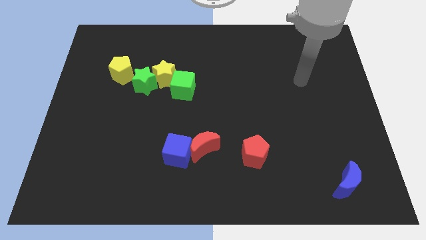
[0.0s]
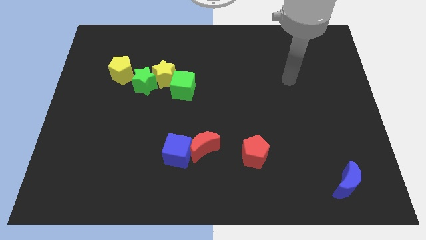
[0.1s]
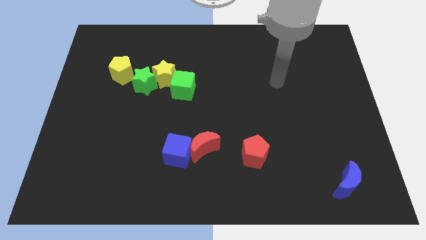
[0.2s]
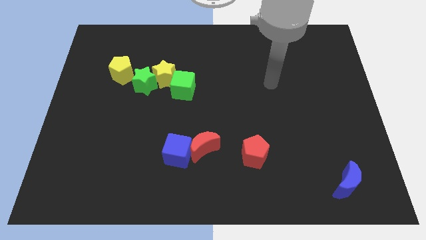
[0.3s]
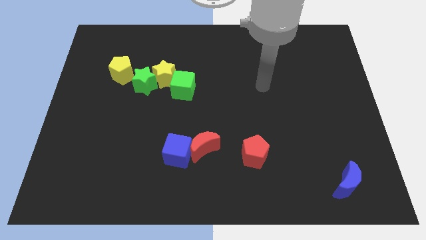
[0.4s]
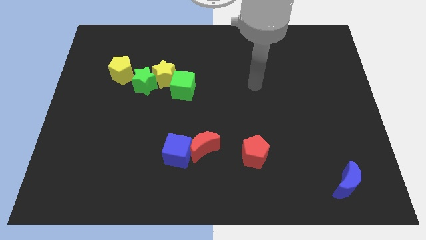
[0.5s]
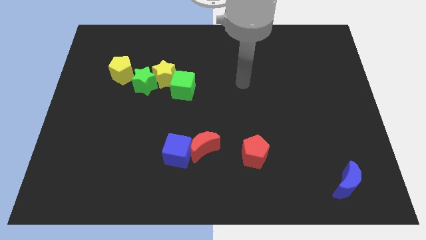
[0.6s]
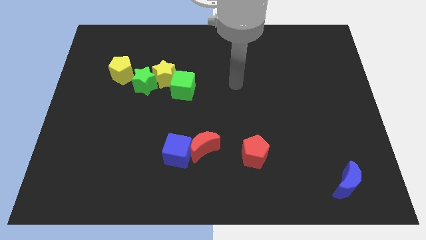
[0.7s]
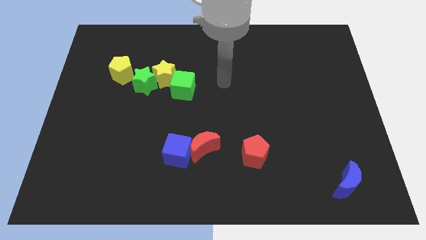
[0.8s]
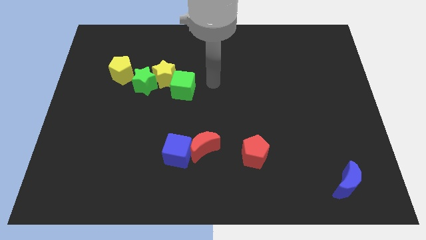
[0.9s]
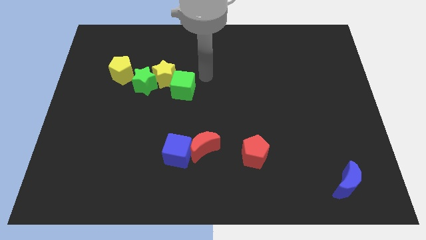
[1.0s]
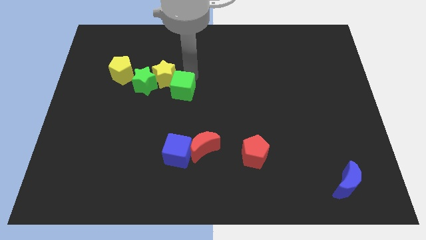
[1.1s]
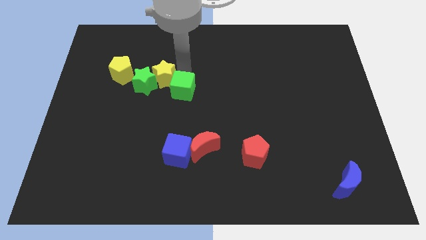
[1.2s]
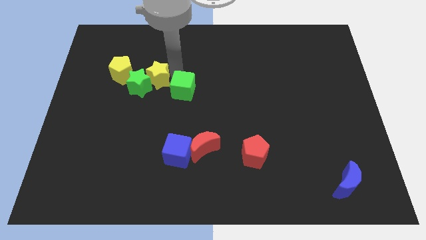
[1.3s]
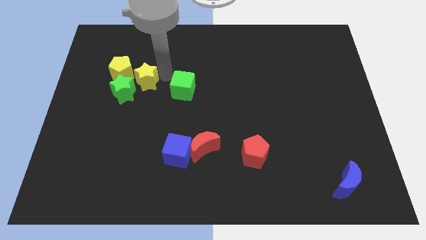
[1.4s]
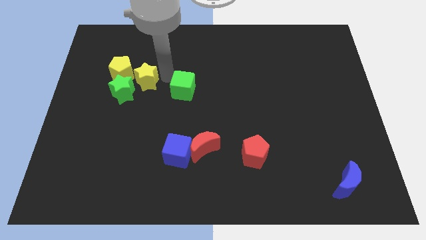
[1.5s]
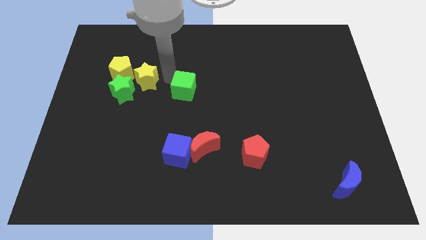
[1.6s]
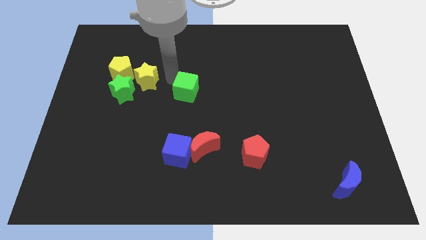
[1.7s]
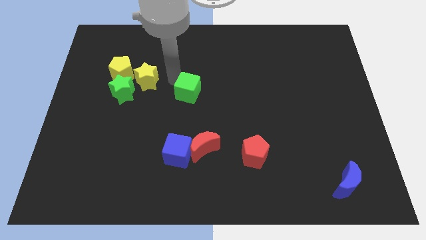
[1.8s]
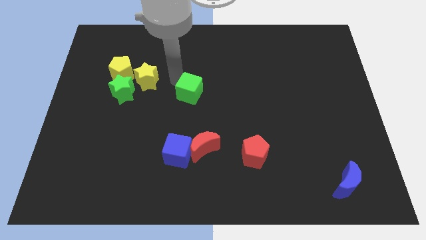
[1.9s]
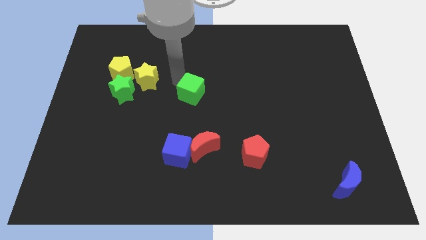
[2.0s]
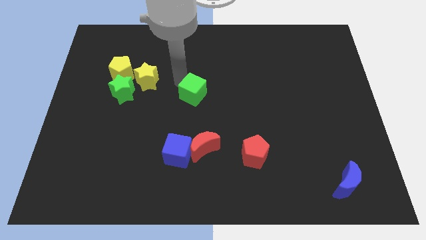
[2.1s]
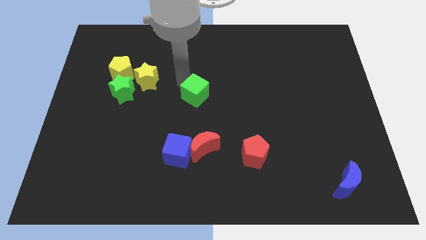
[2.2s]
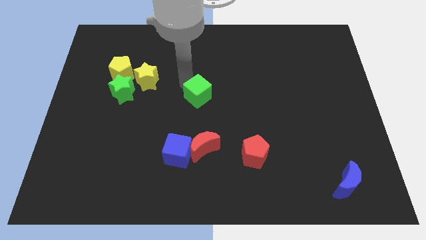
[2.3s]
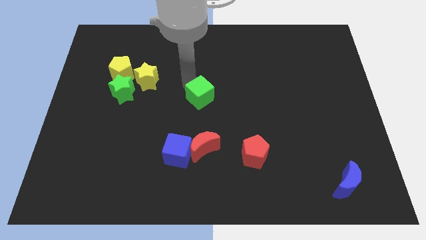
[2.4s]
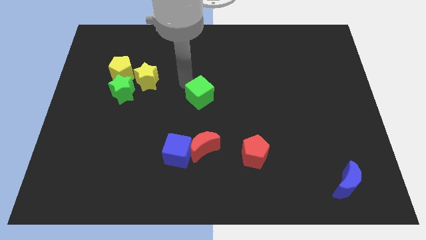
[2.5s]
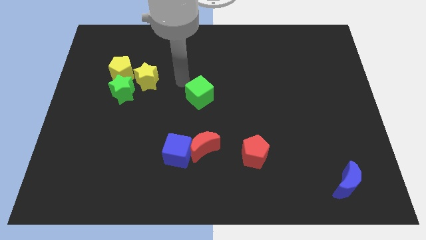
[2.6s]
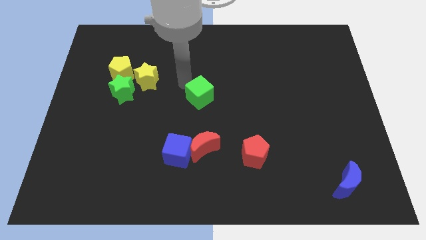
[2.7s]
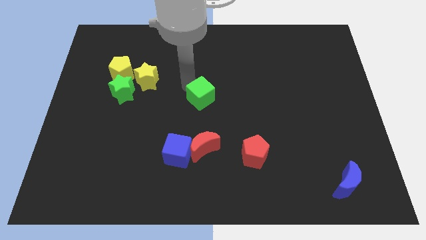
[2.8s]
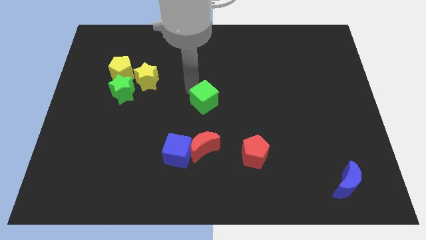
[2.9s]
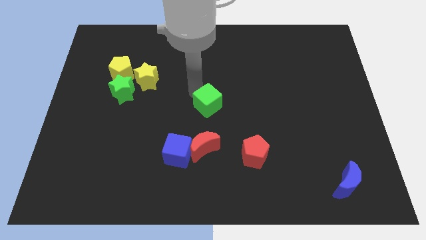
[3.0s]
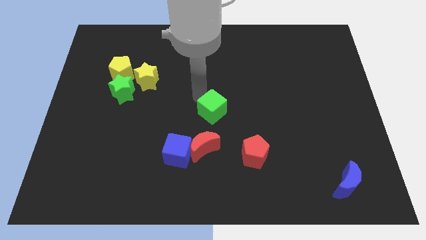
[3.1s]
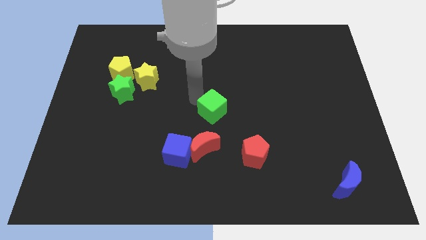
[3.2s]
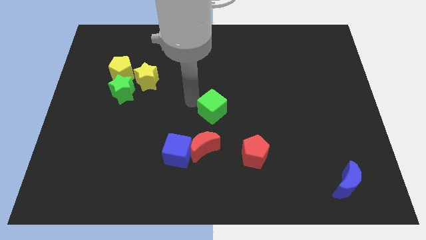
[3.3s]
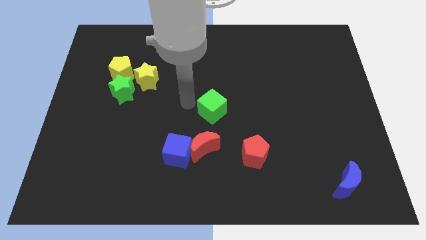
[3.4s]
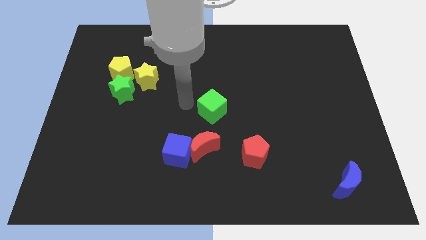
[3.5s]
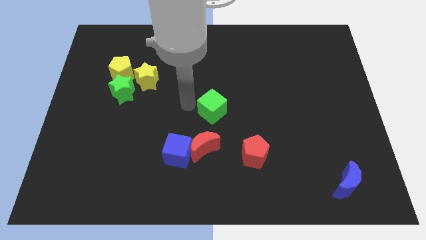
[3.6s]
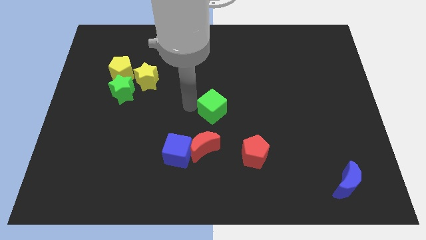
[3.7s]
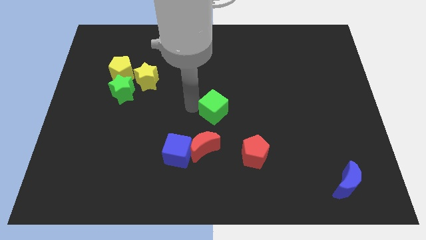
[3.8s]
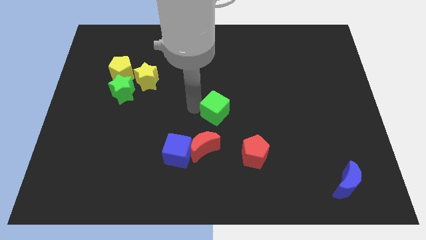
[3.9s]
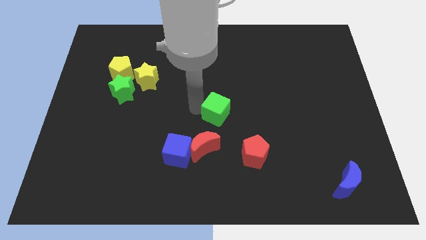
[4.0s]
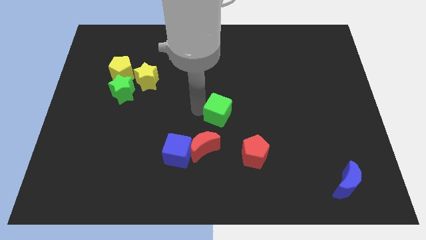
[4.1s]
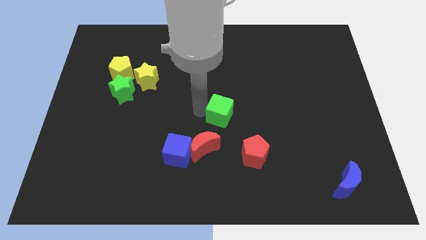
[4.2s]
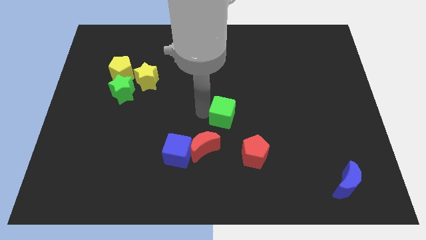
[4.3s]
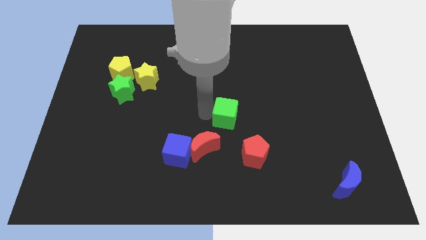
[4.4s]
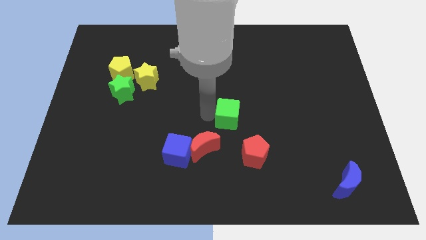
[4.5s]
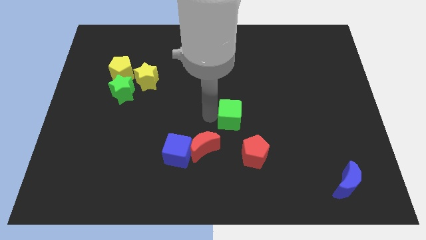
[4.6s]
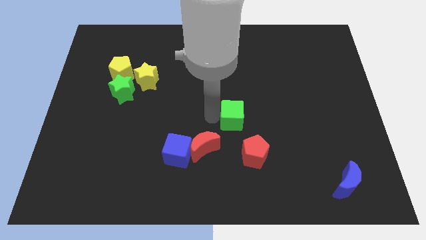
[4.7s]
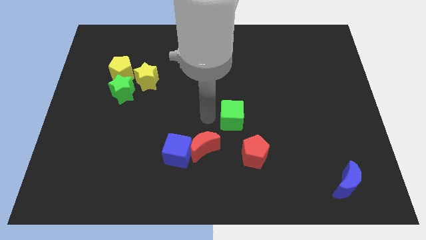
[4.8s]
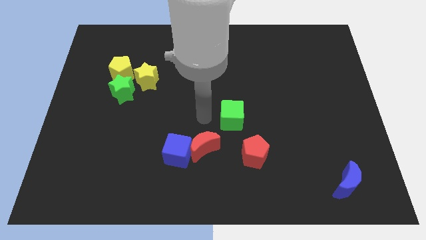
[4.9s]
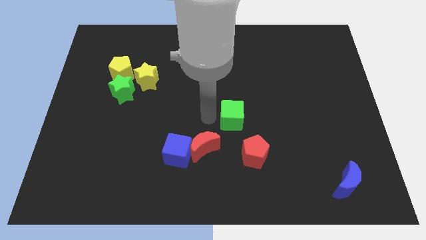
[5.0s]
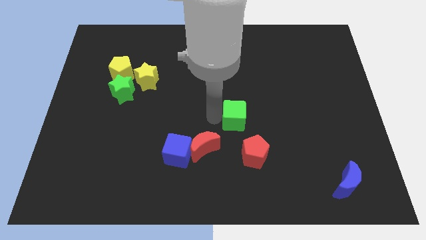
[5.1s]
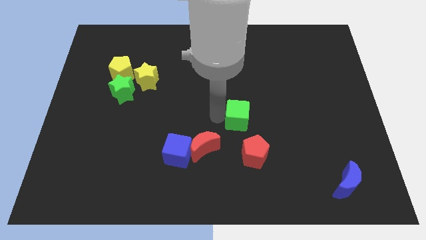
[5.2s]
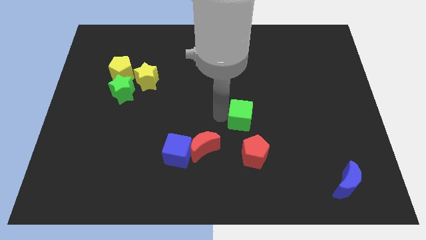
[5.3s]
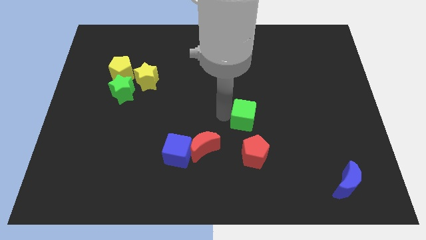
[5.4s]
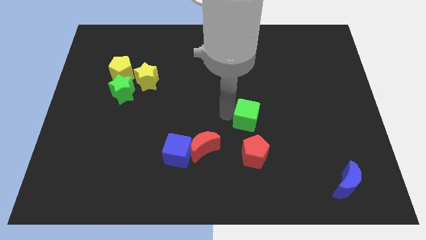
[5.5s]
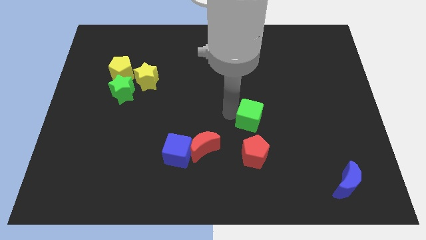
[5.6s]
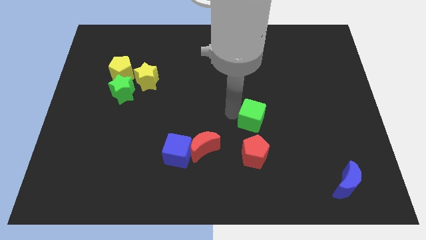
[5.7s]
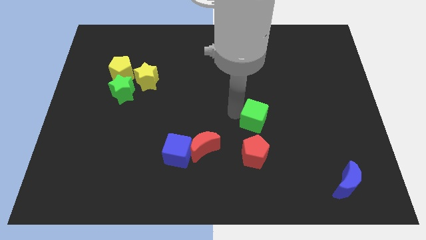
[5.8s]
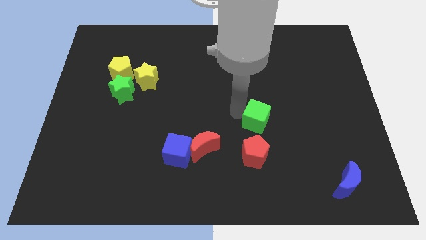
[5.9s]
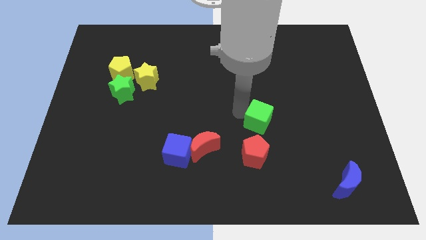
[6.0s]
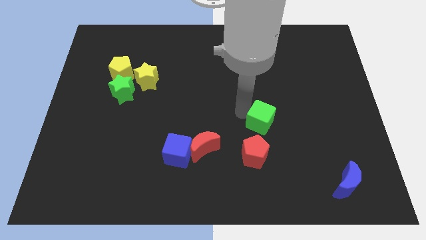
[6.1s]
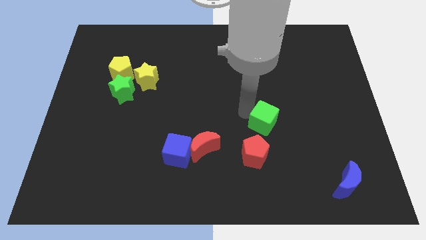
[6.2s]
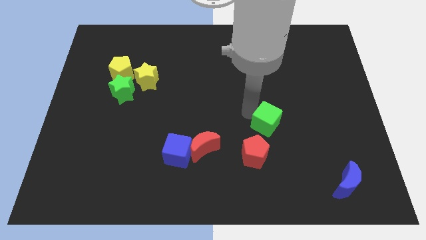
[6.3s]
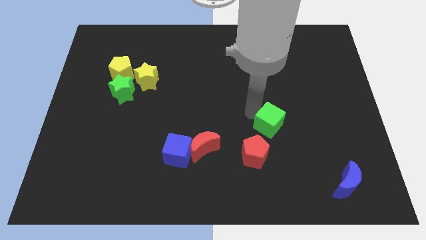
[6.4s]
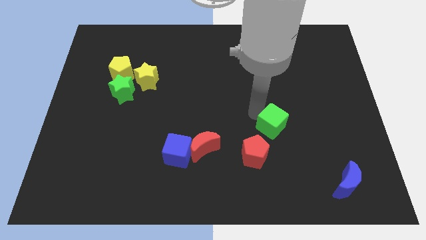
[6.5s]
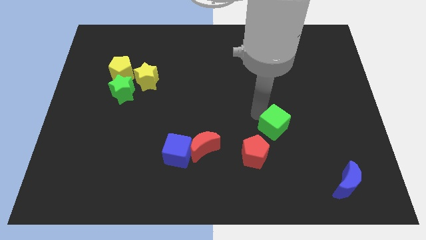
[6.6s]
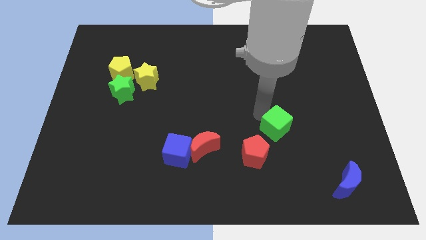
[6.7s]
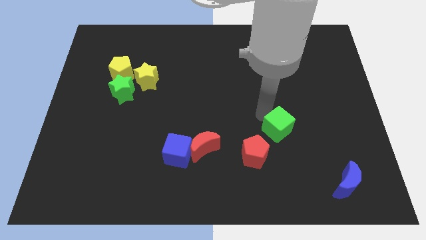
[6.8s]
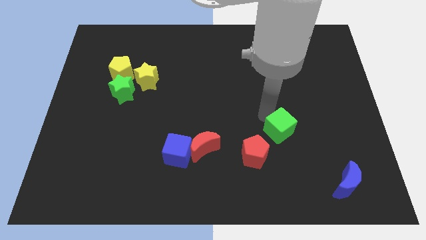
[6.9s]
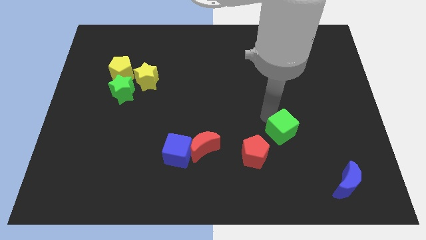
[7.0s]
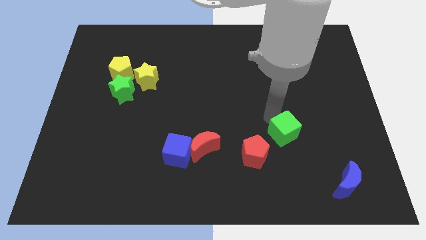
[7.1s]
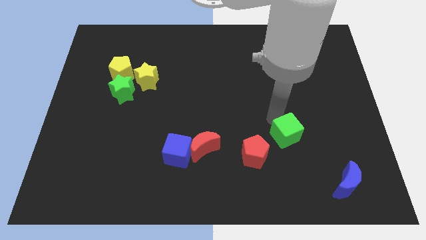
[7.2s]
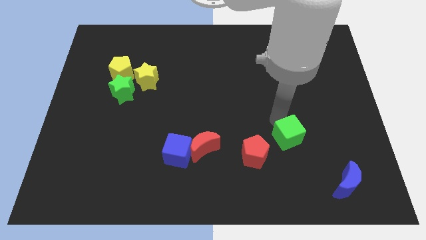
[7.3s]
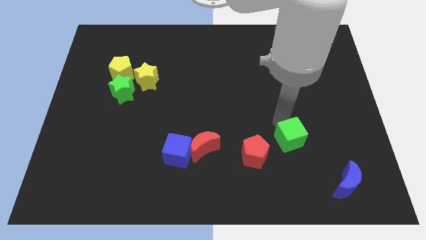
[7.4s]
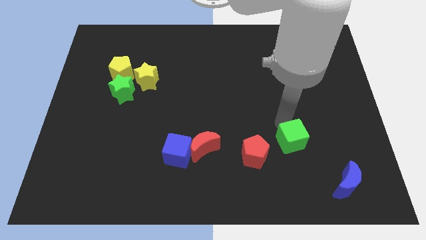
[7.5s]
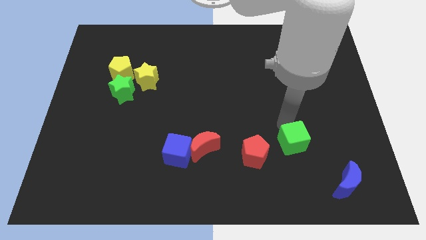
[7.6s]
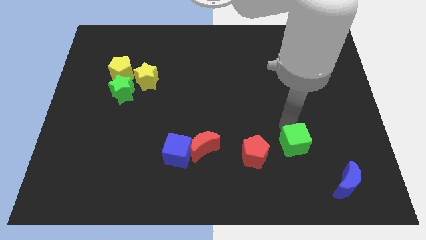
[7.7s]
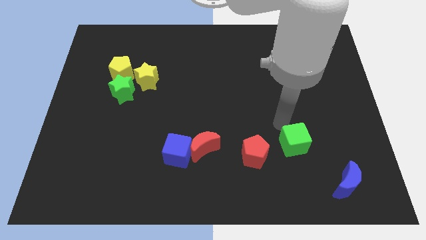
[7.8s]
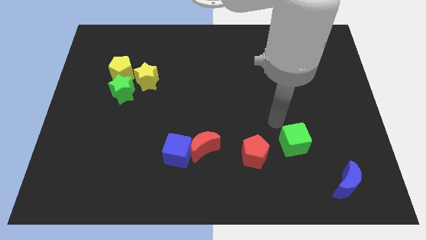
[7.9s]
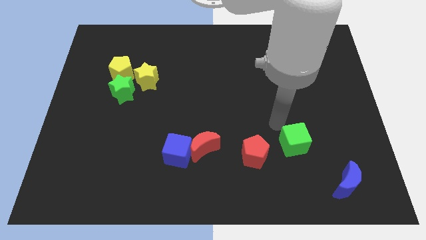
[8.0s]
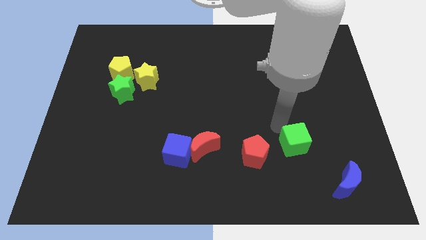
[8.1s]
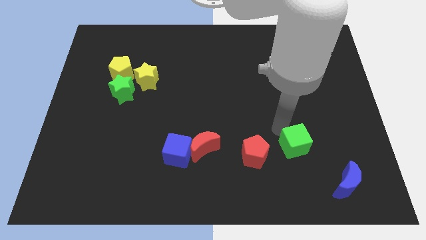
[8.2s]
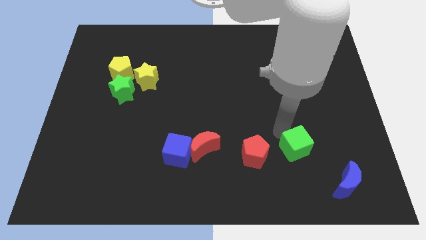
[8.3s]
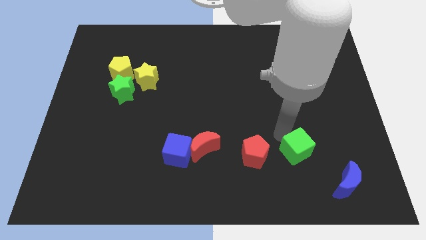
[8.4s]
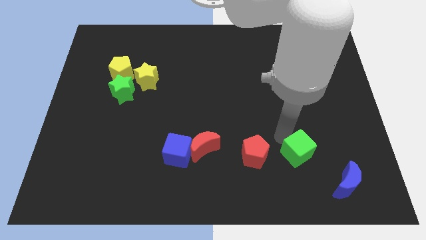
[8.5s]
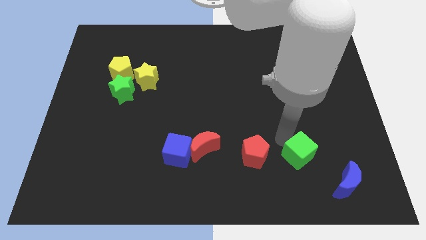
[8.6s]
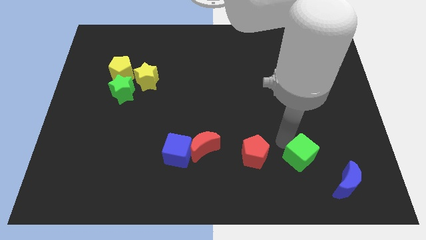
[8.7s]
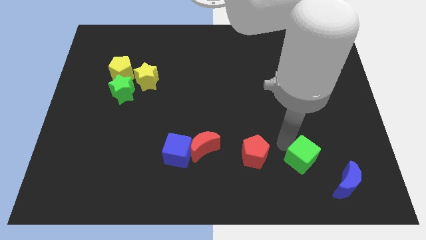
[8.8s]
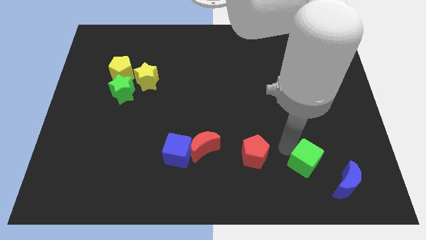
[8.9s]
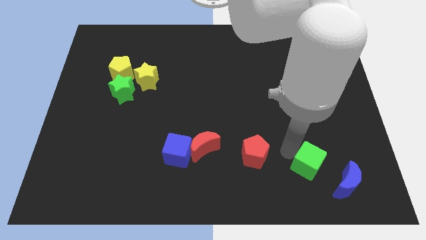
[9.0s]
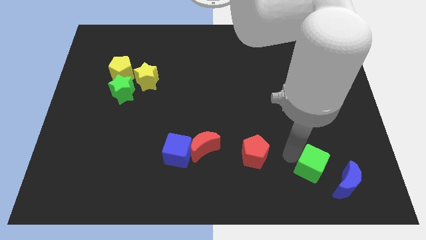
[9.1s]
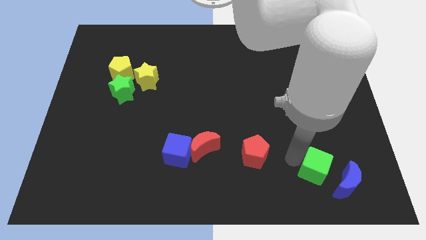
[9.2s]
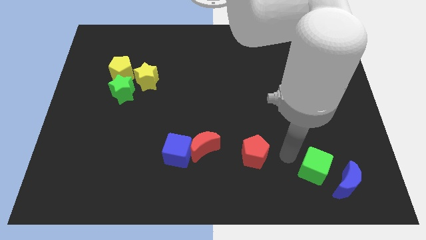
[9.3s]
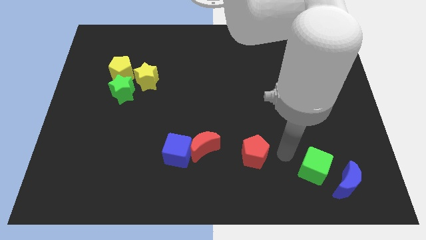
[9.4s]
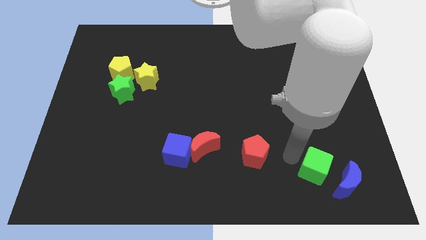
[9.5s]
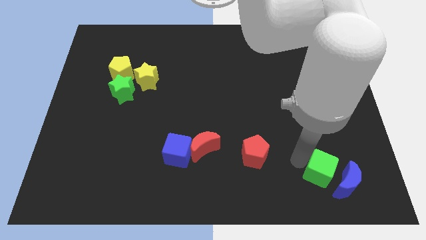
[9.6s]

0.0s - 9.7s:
slide the green cube to the blue moon
